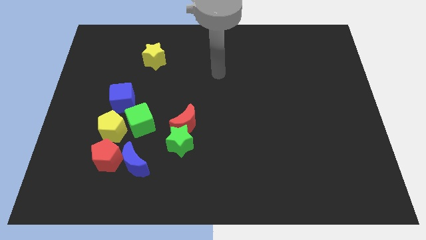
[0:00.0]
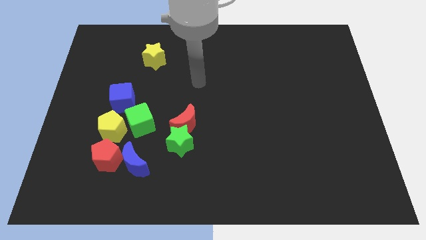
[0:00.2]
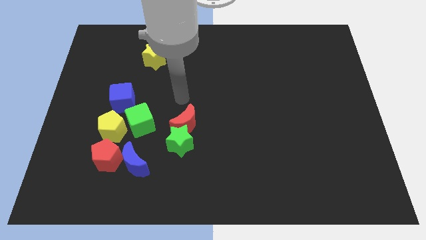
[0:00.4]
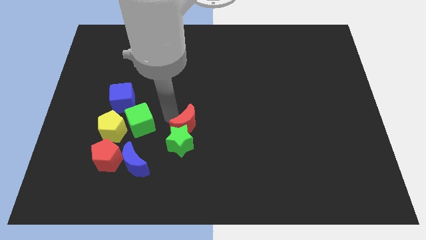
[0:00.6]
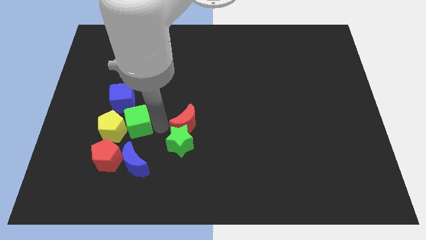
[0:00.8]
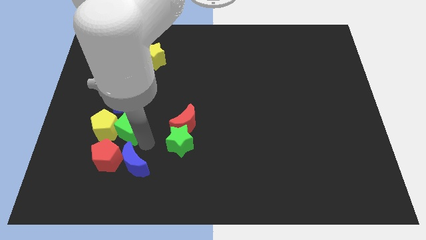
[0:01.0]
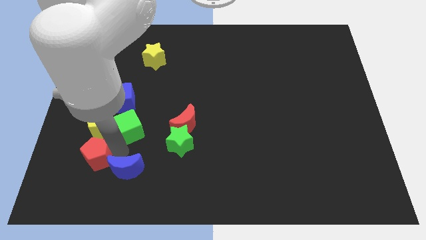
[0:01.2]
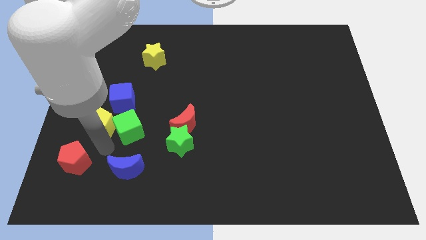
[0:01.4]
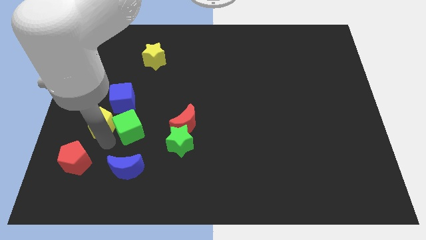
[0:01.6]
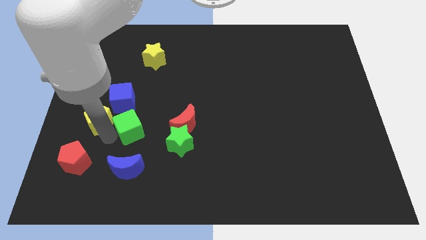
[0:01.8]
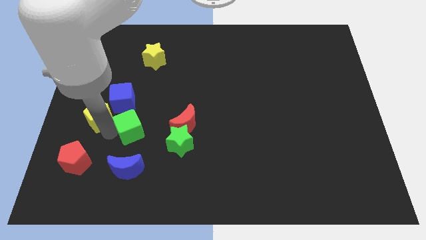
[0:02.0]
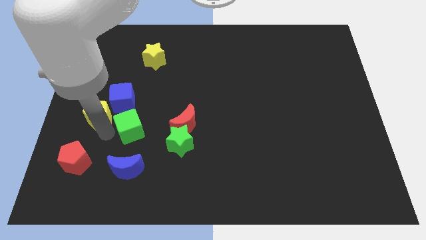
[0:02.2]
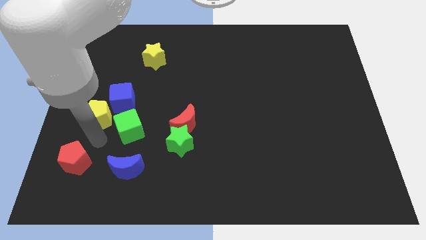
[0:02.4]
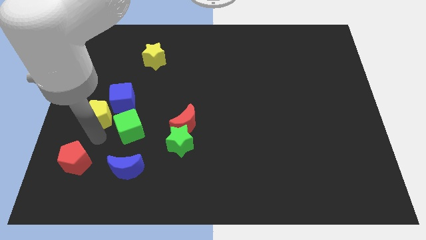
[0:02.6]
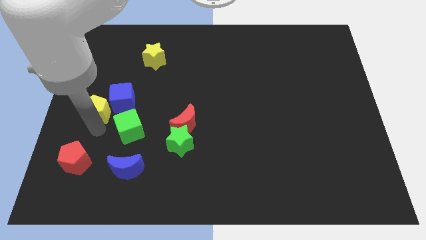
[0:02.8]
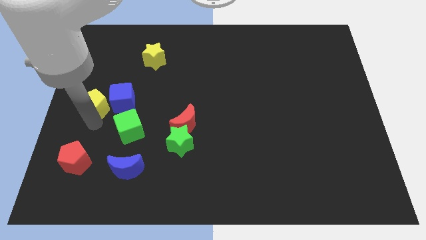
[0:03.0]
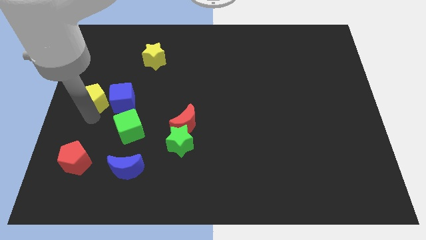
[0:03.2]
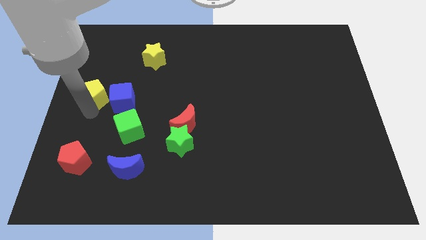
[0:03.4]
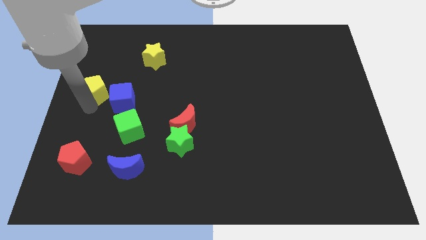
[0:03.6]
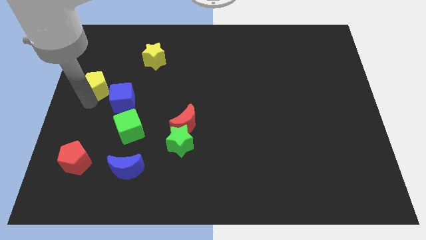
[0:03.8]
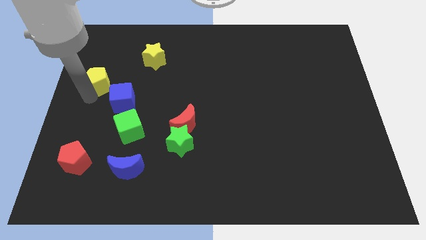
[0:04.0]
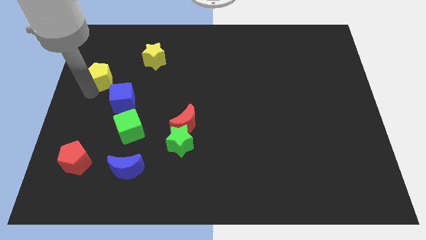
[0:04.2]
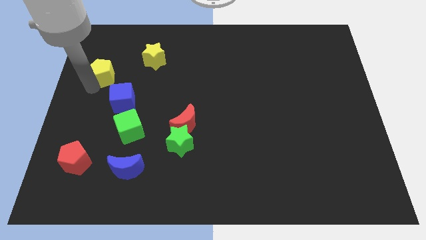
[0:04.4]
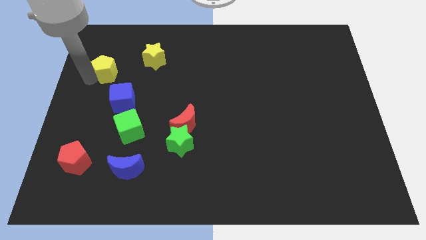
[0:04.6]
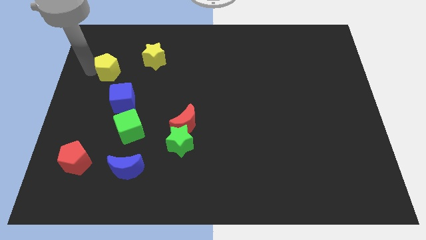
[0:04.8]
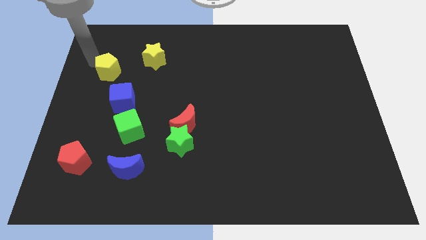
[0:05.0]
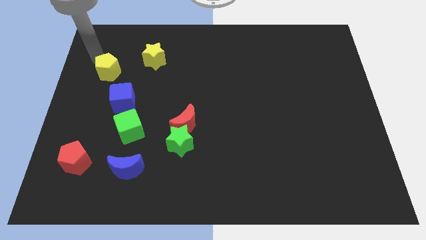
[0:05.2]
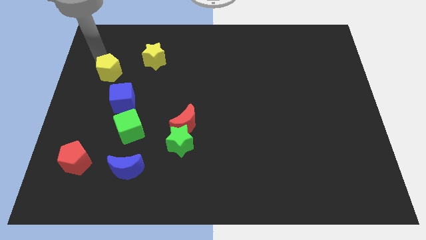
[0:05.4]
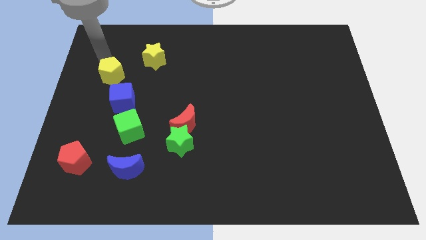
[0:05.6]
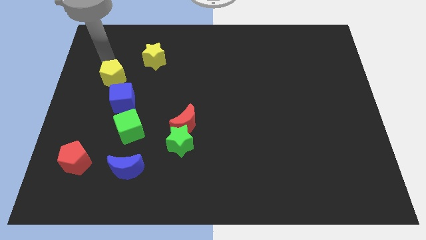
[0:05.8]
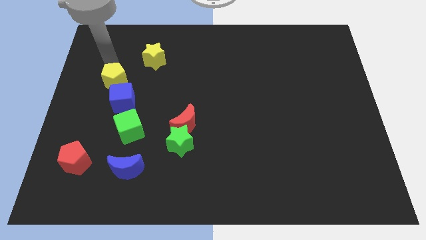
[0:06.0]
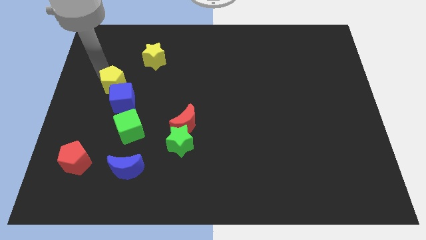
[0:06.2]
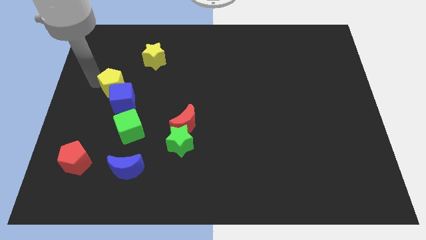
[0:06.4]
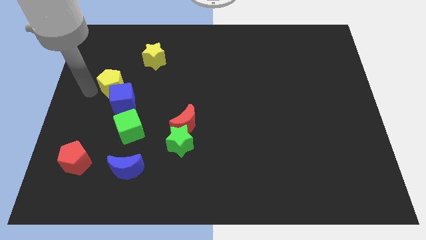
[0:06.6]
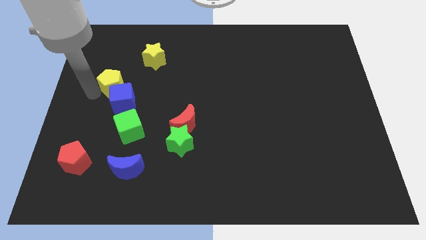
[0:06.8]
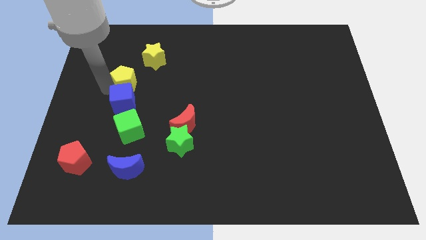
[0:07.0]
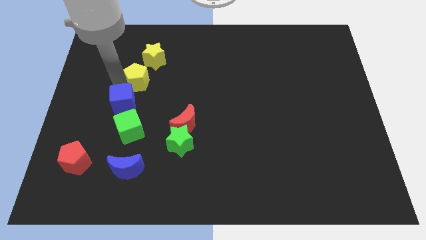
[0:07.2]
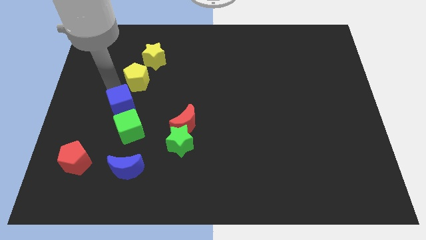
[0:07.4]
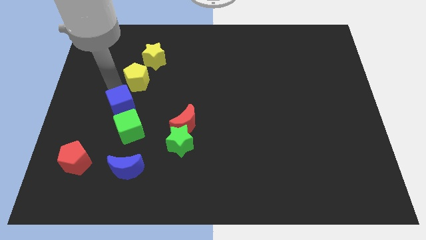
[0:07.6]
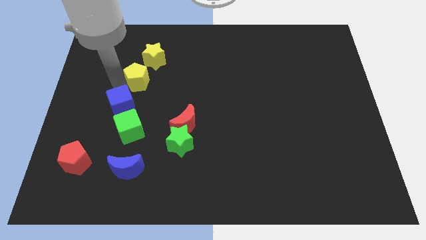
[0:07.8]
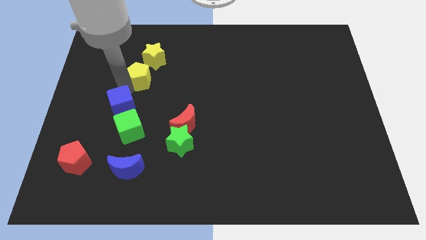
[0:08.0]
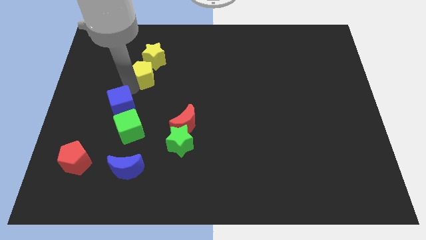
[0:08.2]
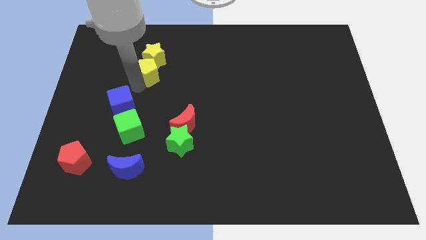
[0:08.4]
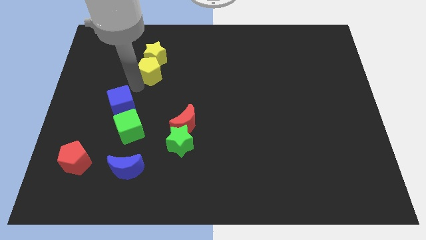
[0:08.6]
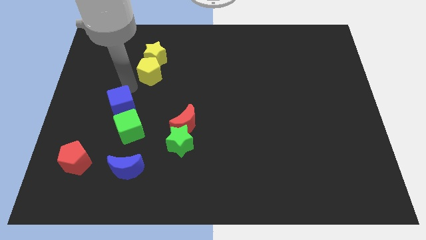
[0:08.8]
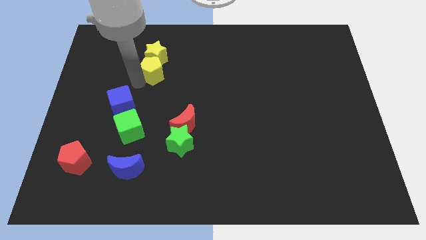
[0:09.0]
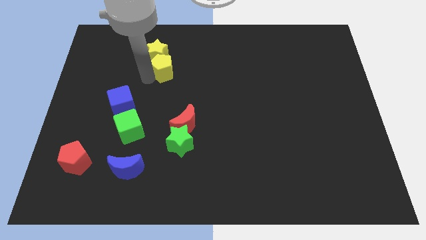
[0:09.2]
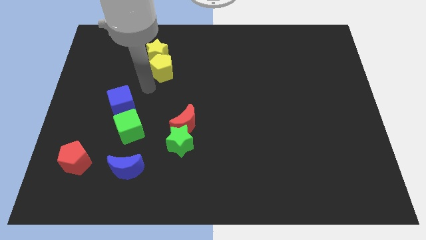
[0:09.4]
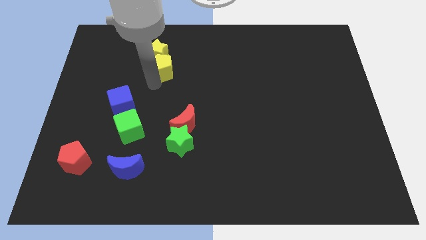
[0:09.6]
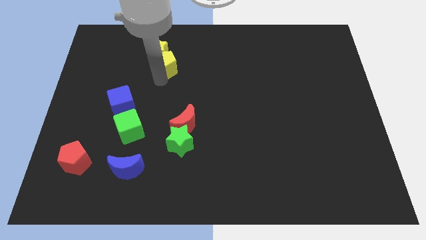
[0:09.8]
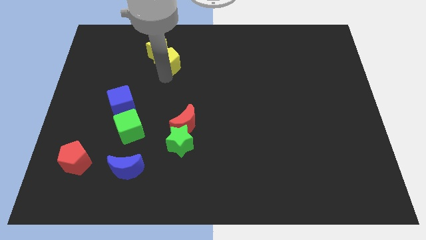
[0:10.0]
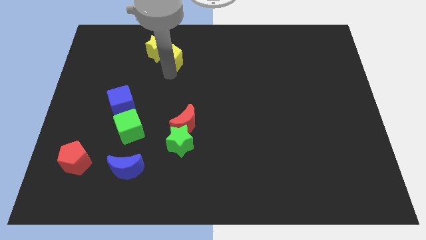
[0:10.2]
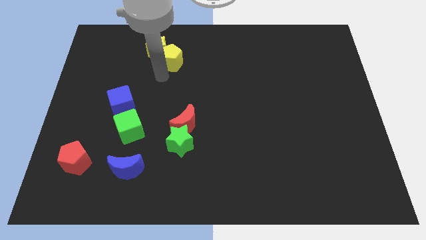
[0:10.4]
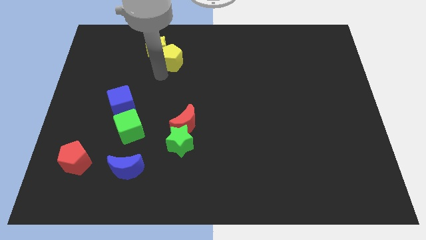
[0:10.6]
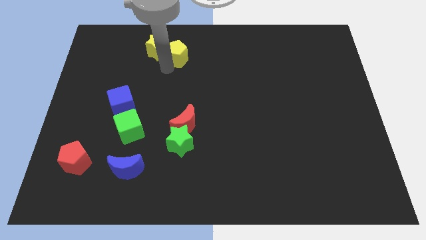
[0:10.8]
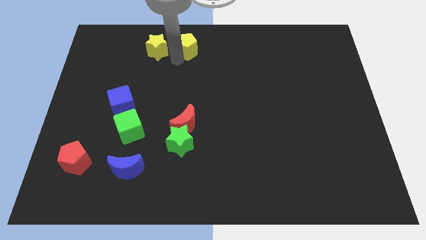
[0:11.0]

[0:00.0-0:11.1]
slide the yellow pentagon to the top

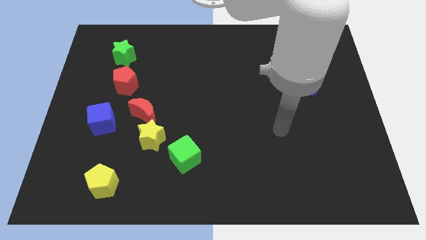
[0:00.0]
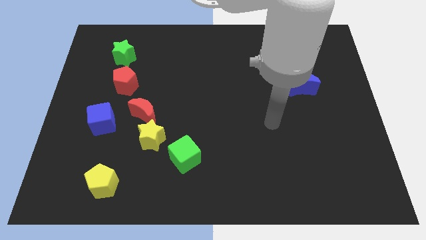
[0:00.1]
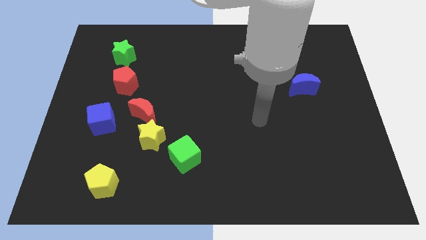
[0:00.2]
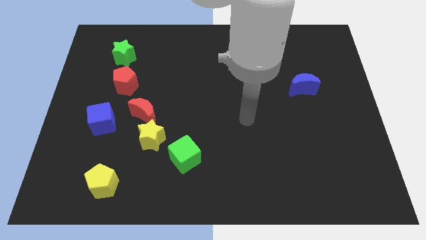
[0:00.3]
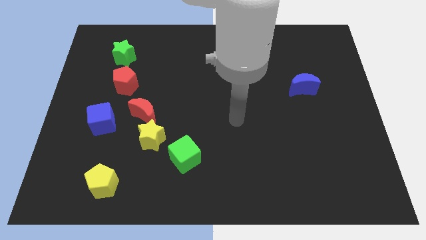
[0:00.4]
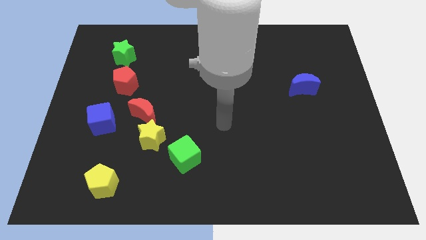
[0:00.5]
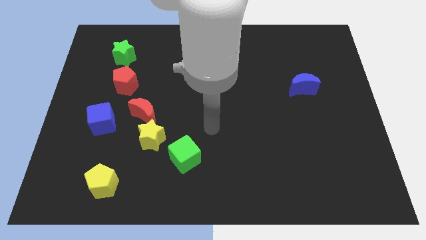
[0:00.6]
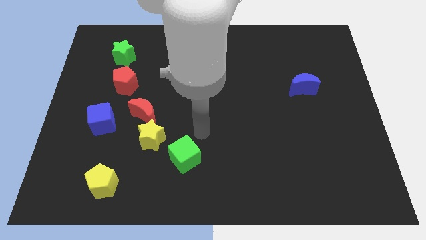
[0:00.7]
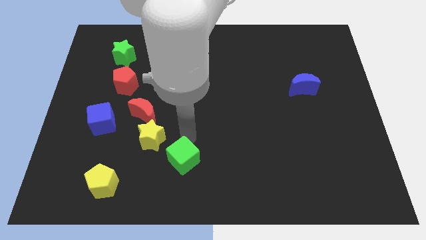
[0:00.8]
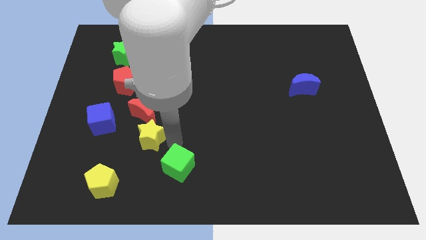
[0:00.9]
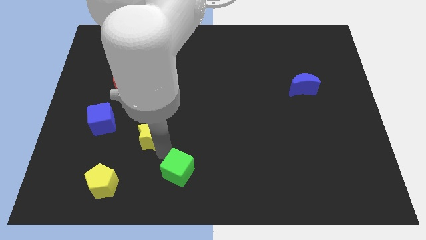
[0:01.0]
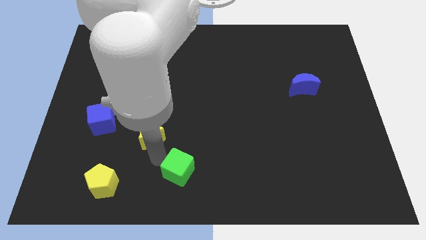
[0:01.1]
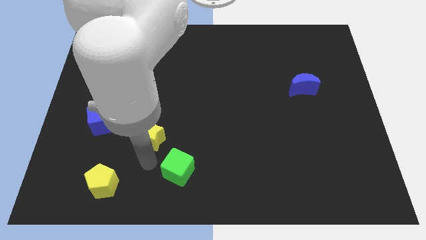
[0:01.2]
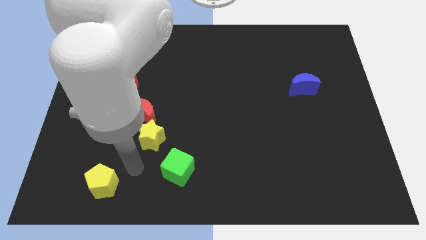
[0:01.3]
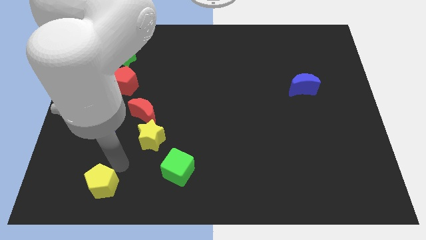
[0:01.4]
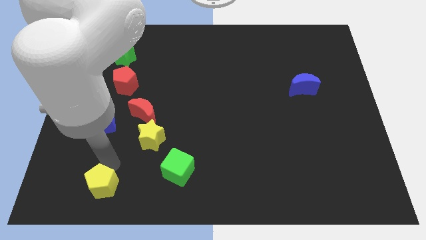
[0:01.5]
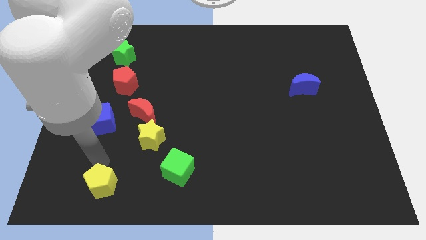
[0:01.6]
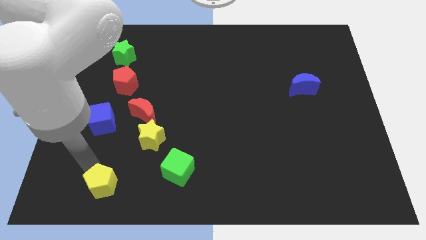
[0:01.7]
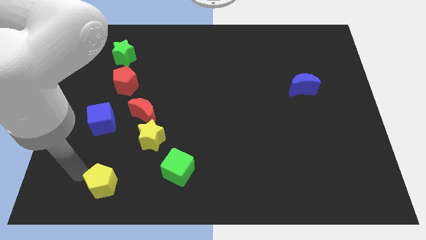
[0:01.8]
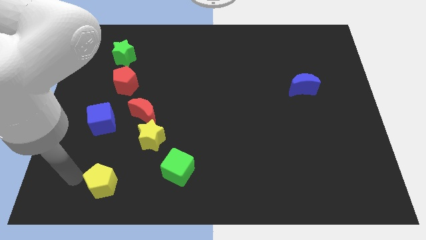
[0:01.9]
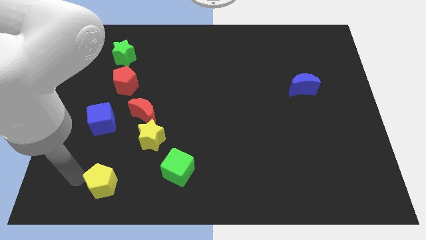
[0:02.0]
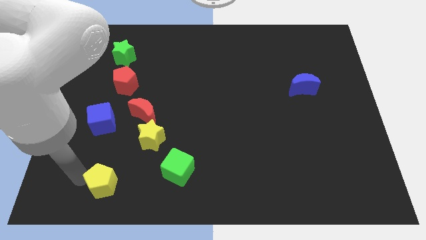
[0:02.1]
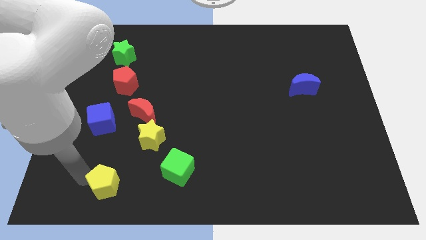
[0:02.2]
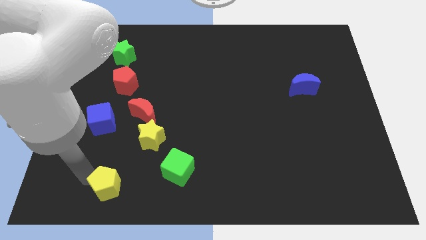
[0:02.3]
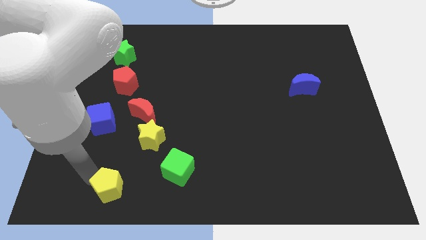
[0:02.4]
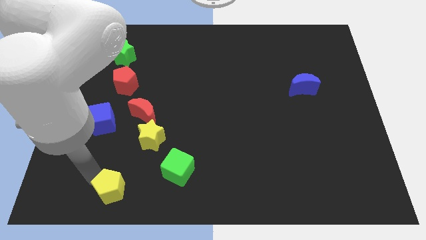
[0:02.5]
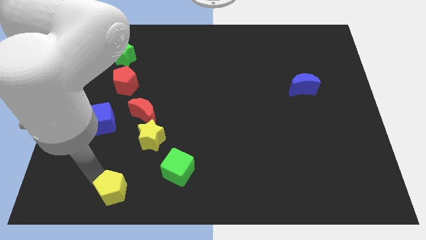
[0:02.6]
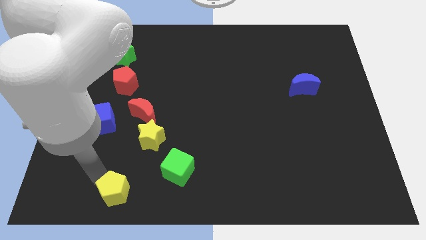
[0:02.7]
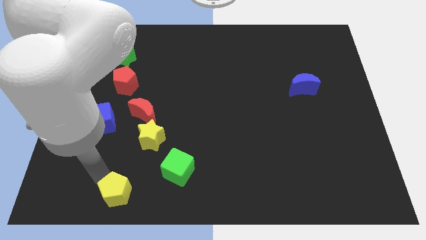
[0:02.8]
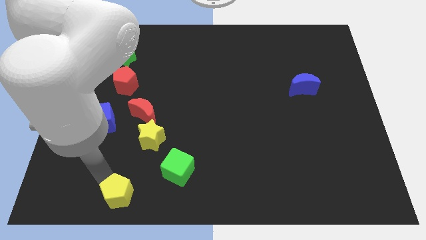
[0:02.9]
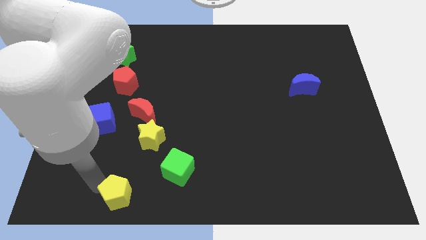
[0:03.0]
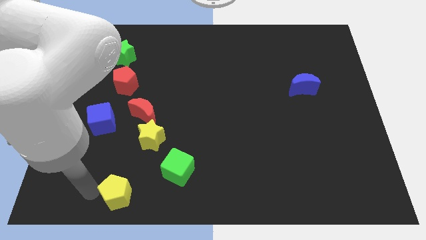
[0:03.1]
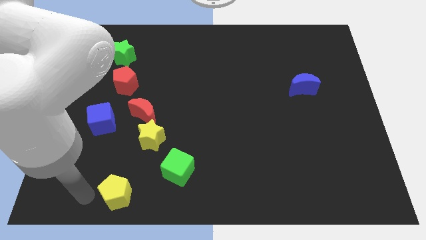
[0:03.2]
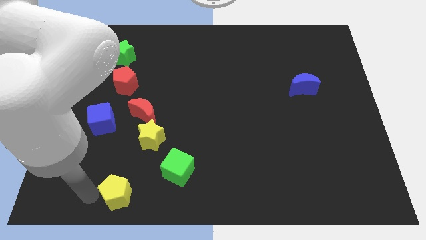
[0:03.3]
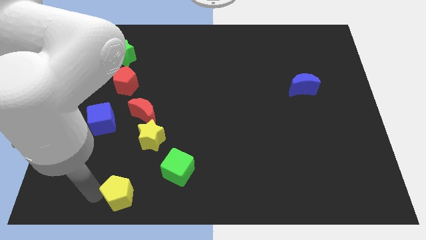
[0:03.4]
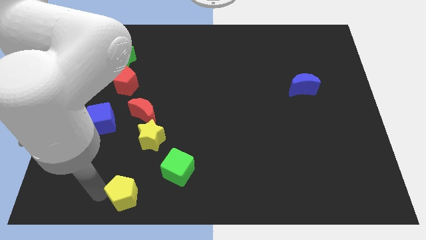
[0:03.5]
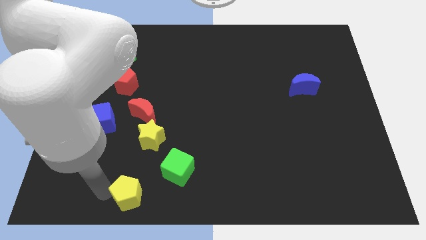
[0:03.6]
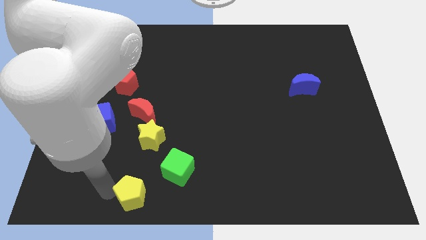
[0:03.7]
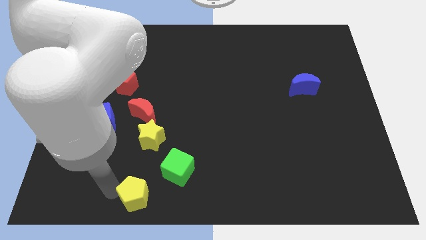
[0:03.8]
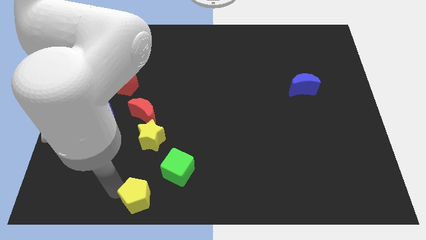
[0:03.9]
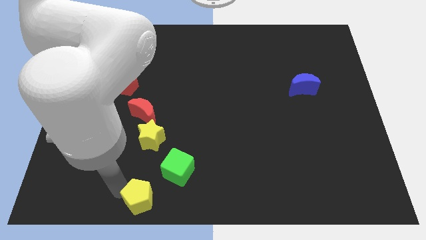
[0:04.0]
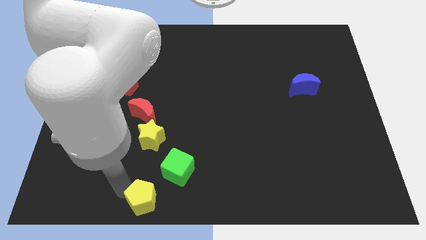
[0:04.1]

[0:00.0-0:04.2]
put the yellow pentagon to the bottom side
